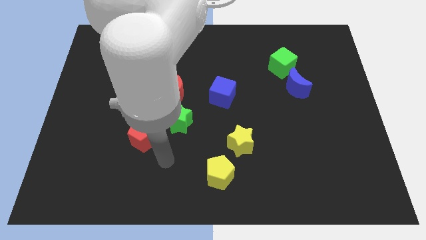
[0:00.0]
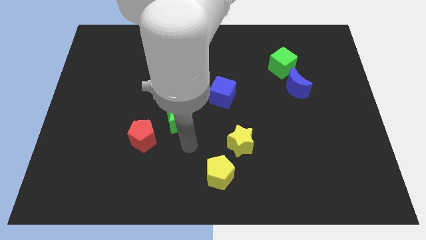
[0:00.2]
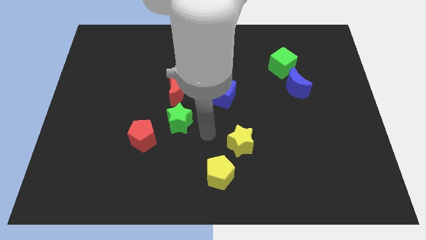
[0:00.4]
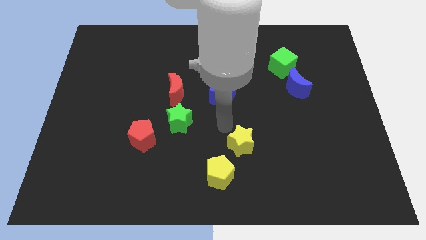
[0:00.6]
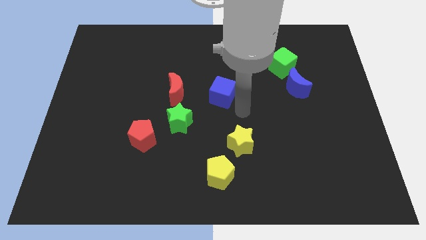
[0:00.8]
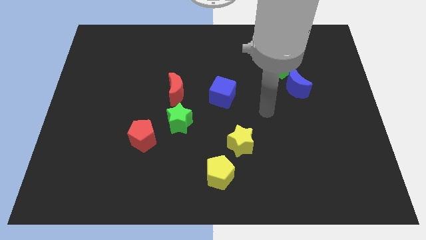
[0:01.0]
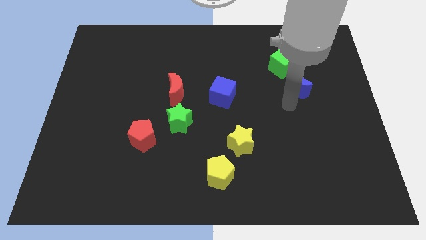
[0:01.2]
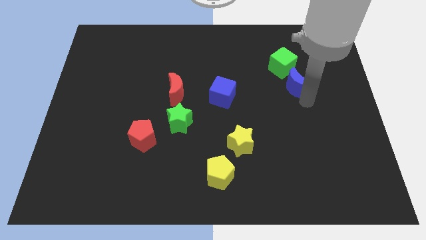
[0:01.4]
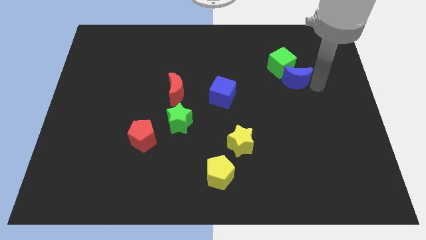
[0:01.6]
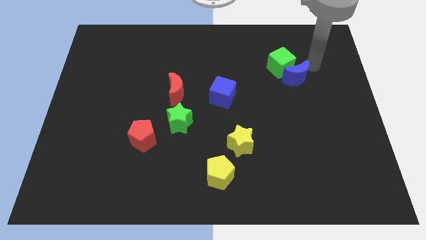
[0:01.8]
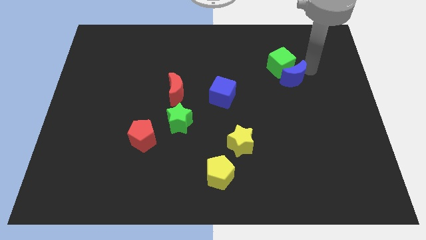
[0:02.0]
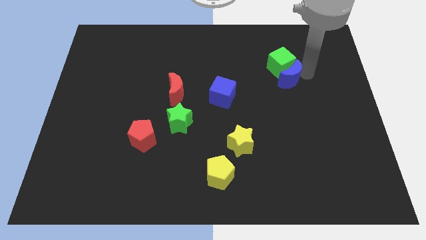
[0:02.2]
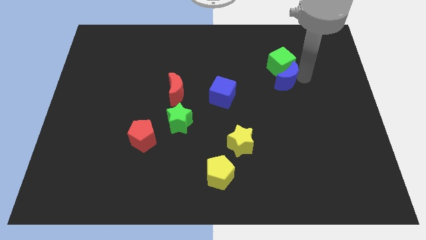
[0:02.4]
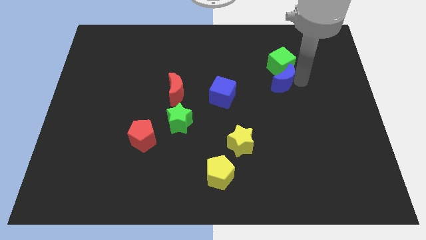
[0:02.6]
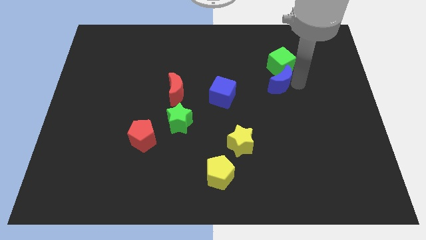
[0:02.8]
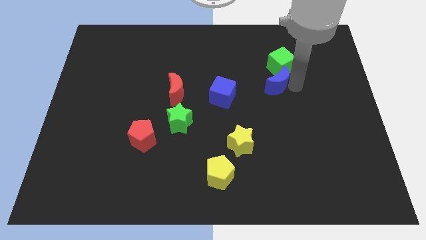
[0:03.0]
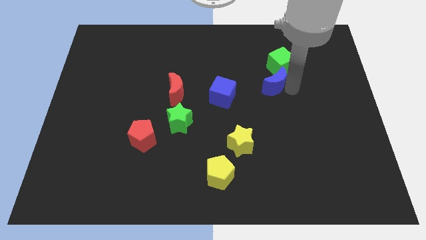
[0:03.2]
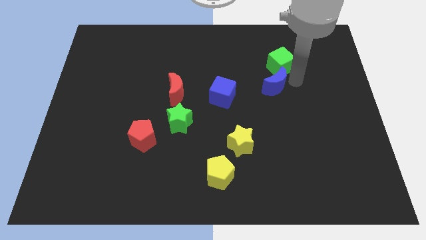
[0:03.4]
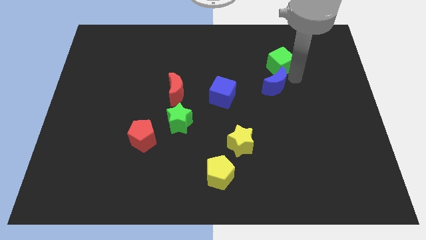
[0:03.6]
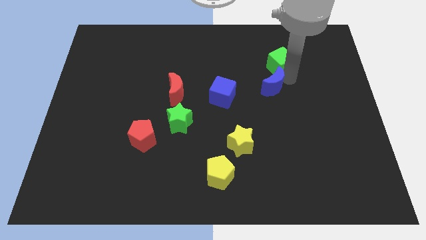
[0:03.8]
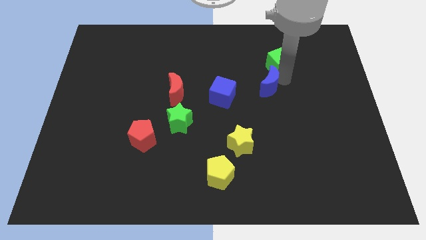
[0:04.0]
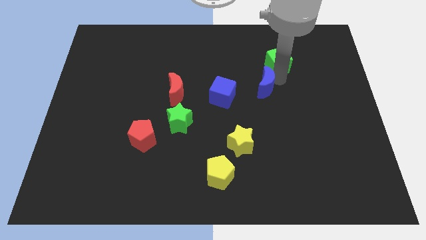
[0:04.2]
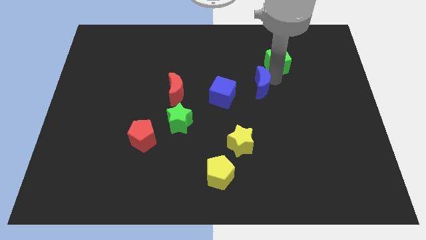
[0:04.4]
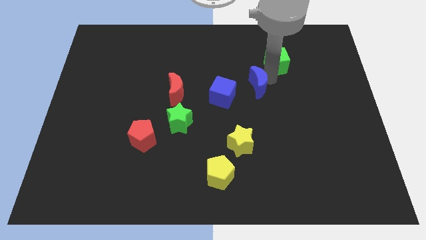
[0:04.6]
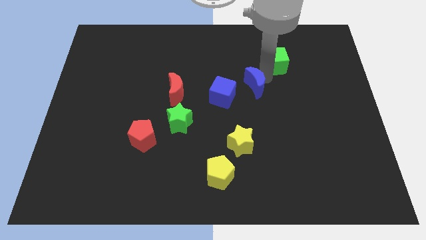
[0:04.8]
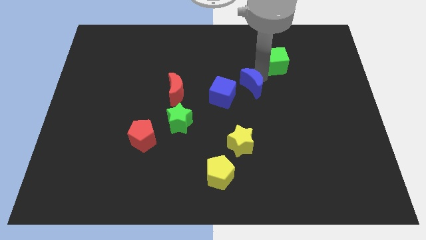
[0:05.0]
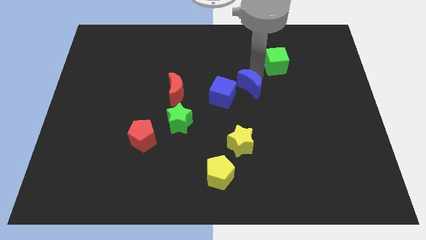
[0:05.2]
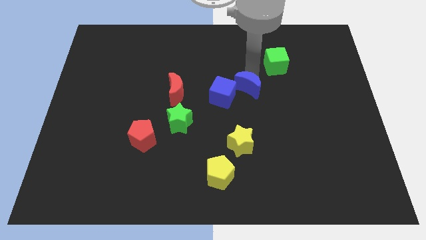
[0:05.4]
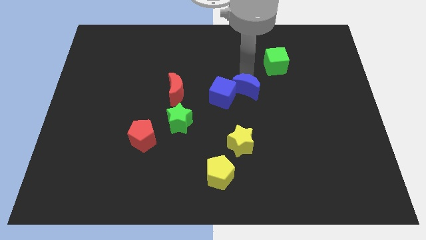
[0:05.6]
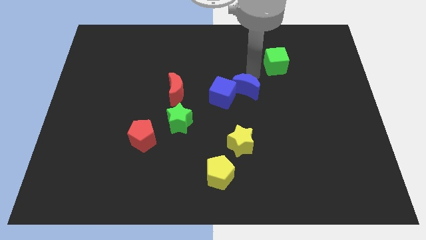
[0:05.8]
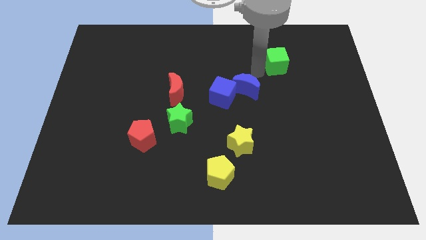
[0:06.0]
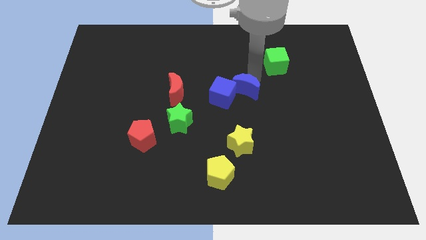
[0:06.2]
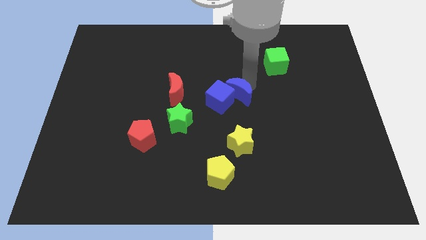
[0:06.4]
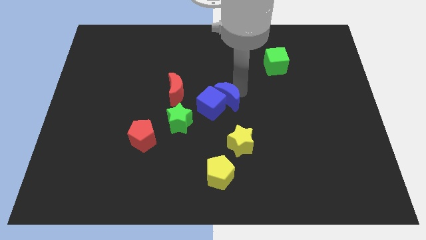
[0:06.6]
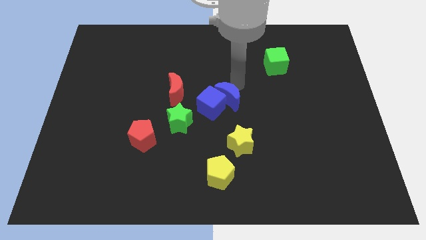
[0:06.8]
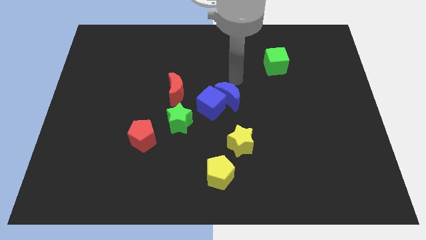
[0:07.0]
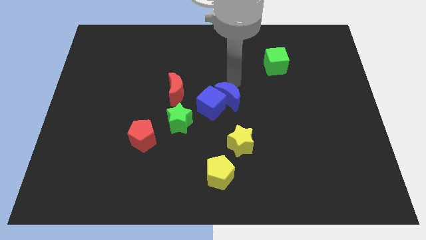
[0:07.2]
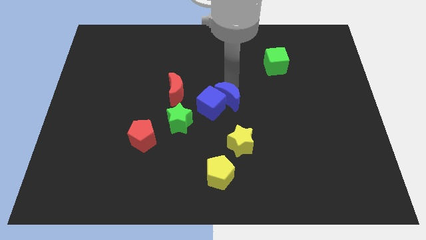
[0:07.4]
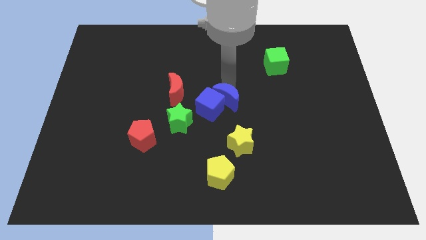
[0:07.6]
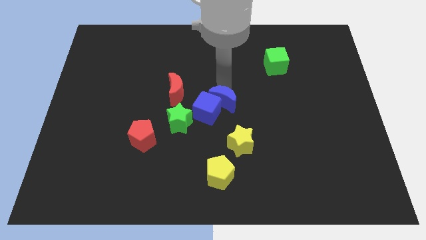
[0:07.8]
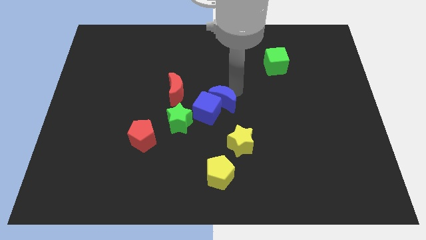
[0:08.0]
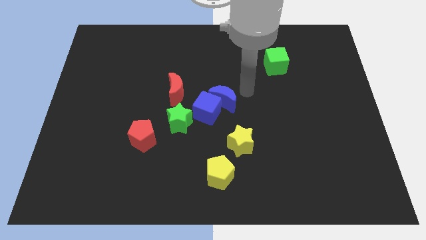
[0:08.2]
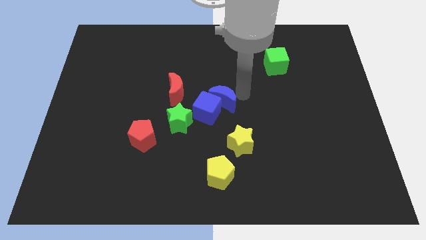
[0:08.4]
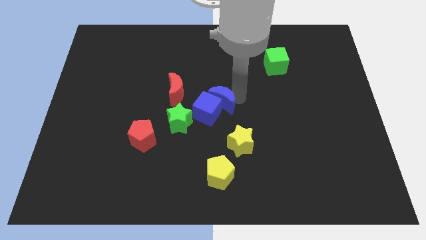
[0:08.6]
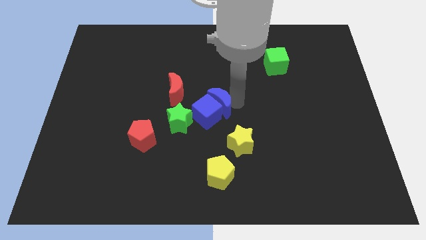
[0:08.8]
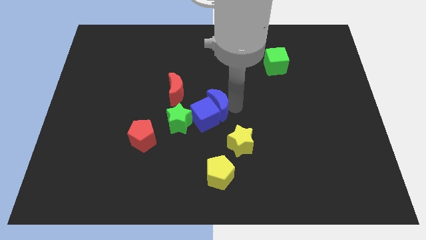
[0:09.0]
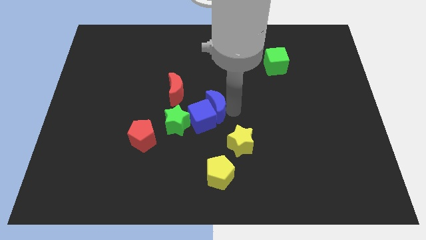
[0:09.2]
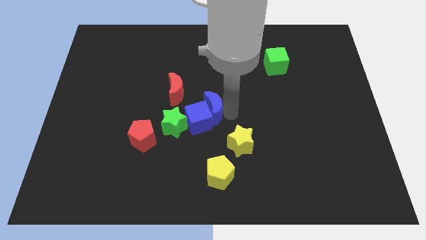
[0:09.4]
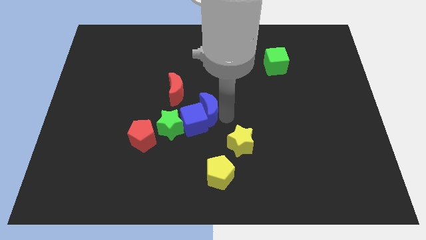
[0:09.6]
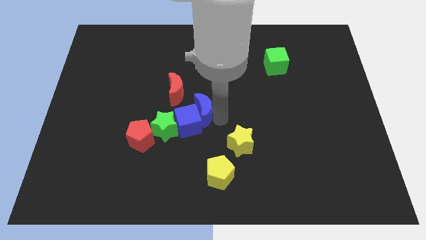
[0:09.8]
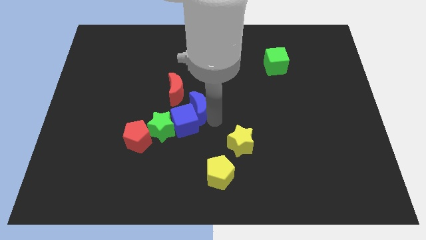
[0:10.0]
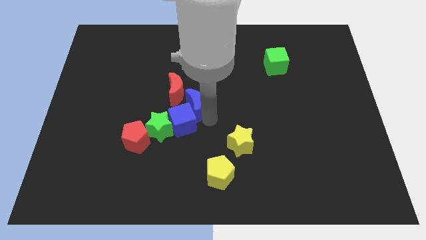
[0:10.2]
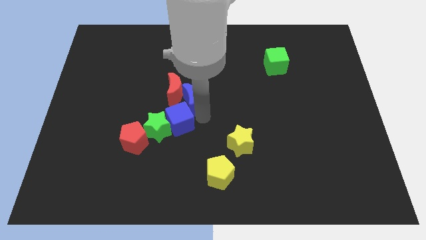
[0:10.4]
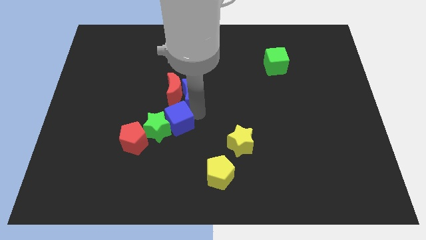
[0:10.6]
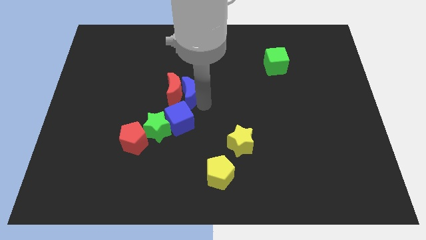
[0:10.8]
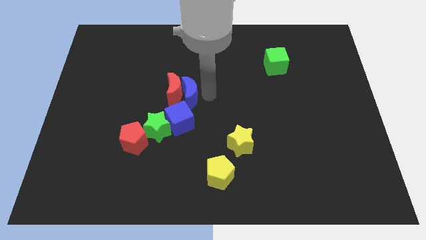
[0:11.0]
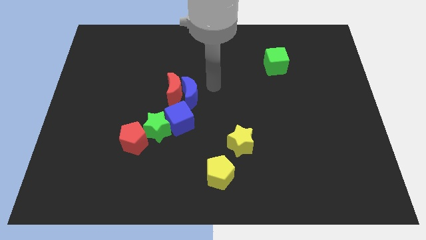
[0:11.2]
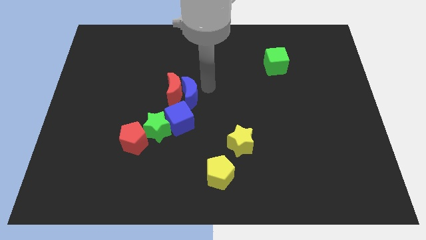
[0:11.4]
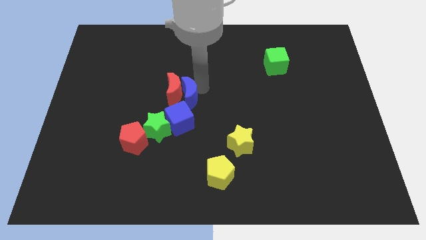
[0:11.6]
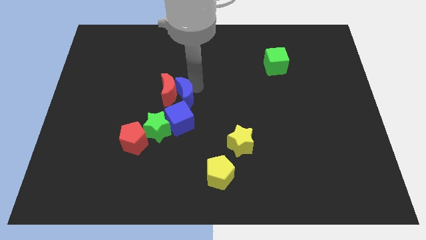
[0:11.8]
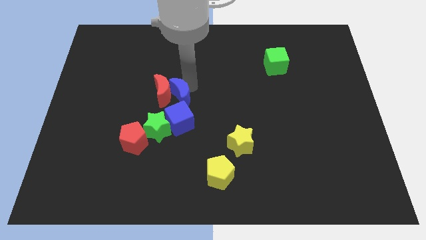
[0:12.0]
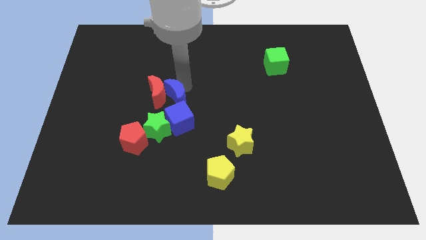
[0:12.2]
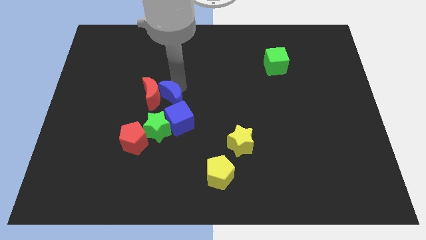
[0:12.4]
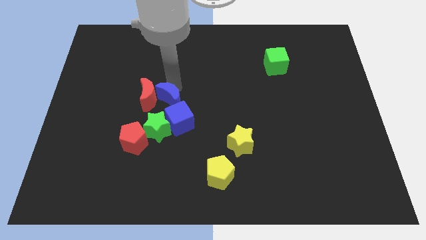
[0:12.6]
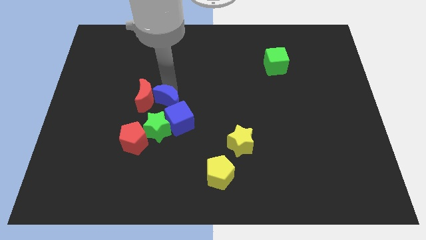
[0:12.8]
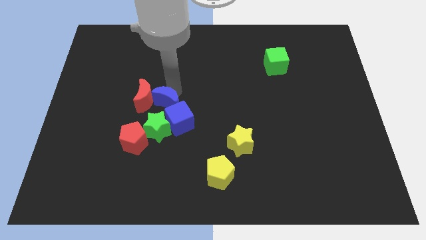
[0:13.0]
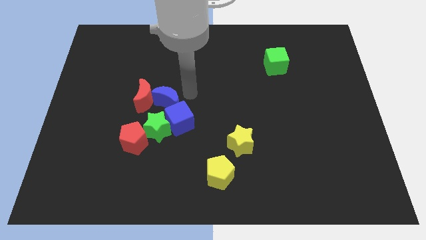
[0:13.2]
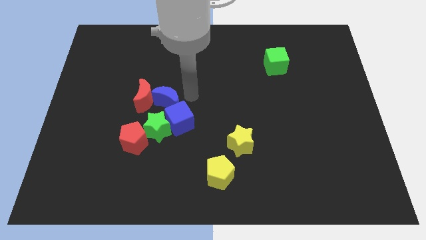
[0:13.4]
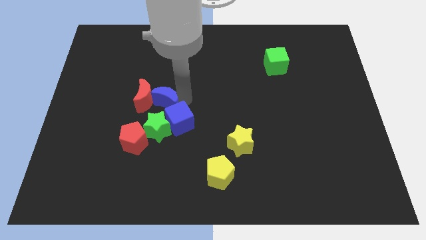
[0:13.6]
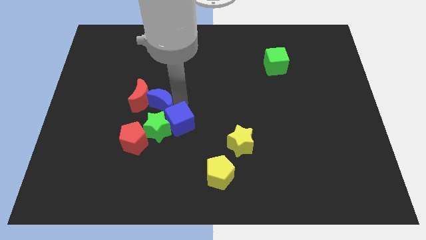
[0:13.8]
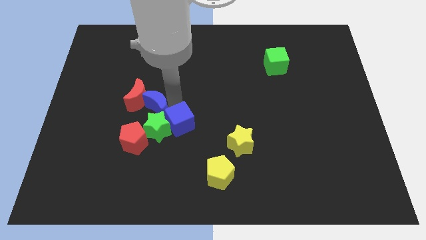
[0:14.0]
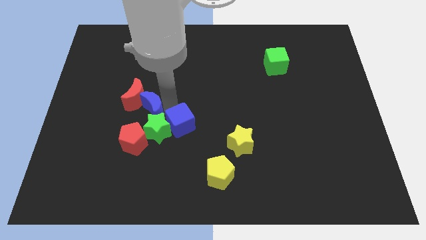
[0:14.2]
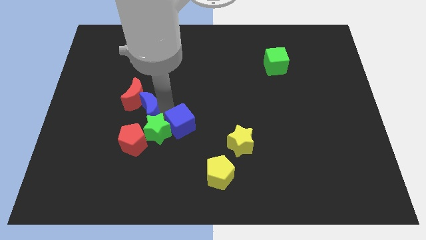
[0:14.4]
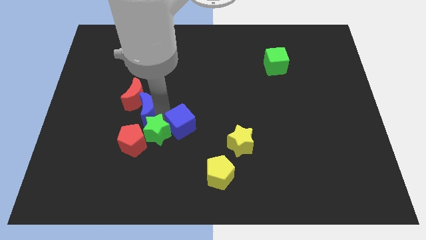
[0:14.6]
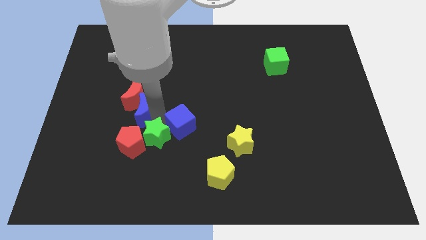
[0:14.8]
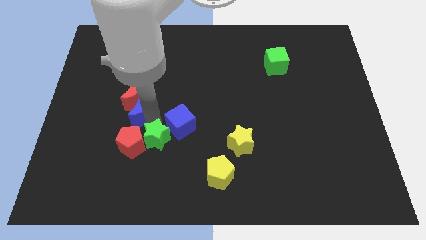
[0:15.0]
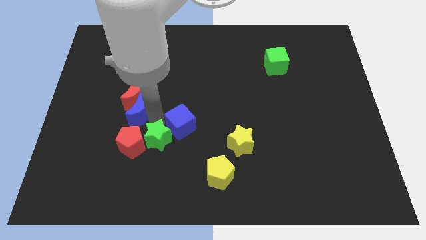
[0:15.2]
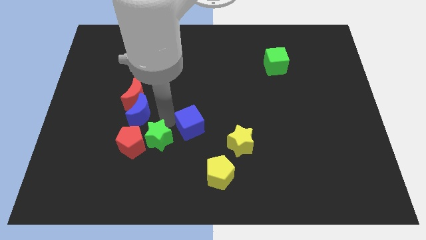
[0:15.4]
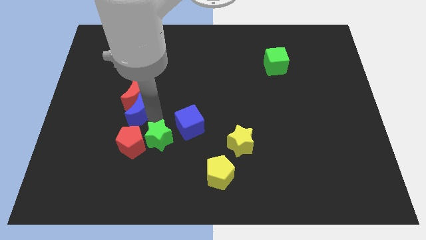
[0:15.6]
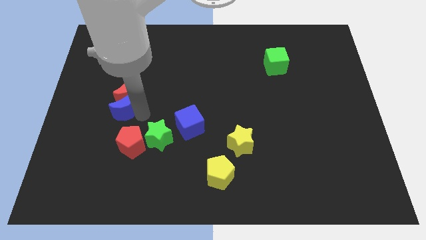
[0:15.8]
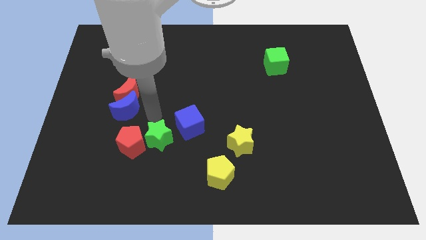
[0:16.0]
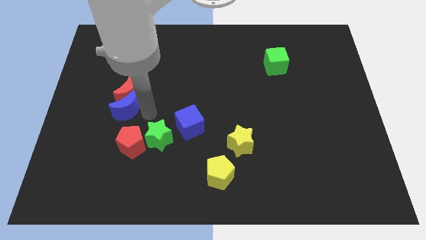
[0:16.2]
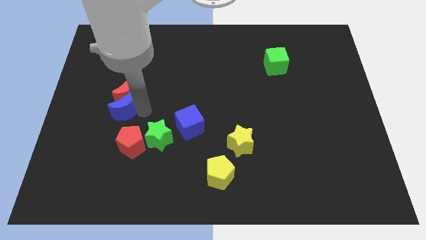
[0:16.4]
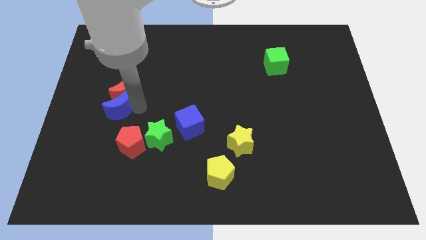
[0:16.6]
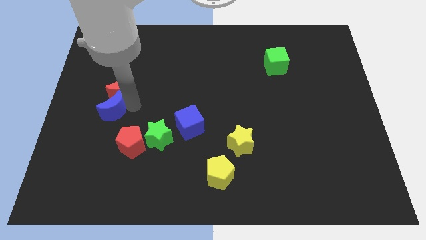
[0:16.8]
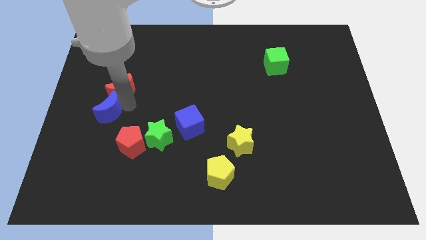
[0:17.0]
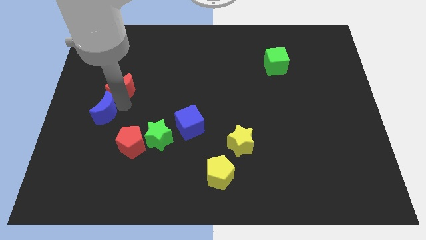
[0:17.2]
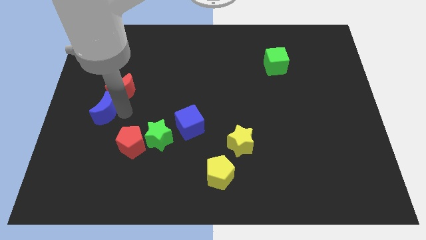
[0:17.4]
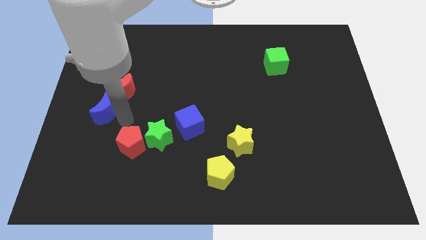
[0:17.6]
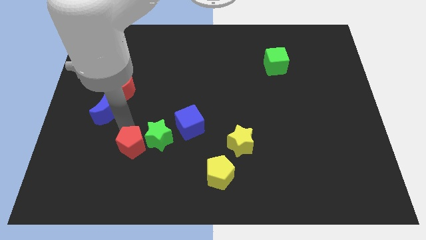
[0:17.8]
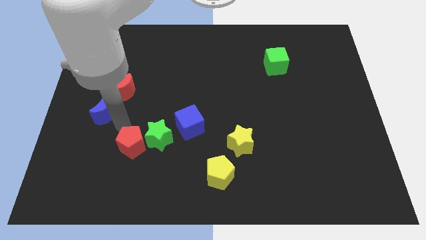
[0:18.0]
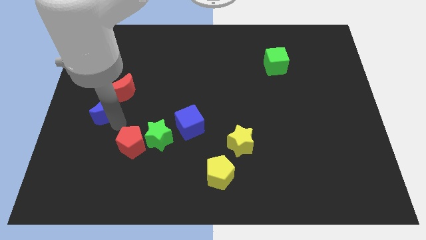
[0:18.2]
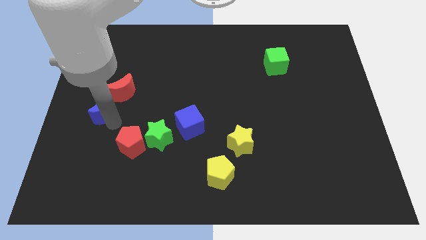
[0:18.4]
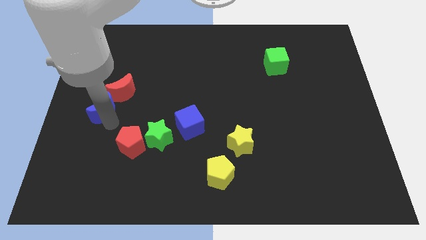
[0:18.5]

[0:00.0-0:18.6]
push the blue moon to the left side
